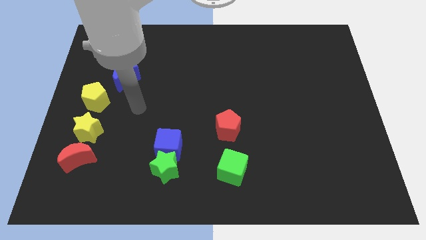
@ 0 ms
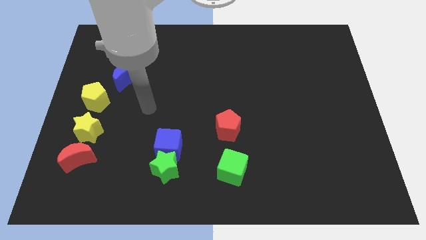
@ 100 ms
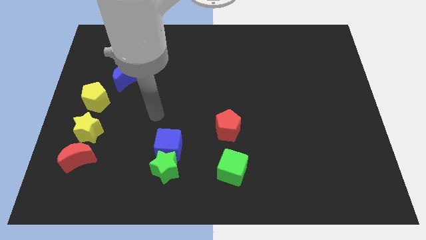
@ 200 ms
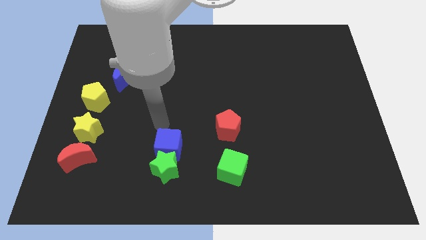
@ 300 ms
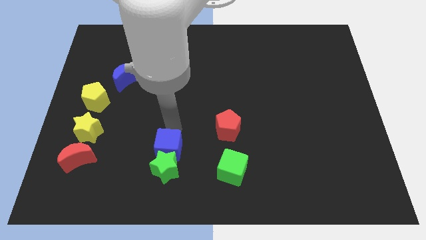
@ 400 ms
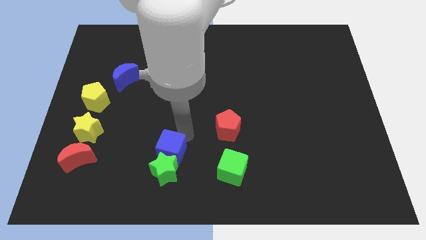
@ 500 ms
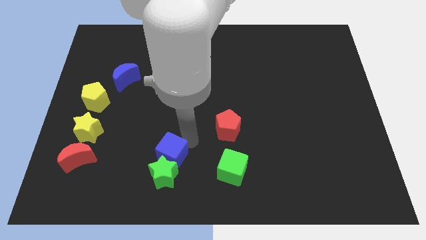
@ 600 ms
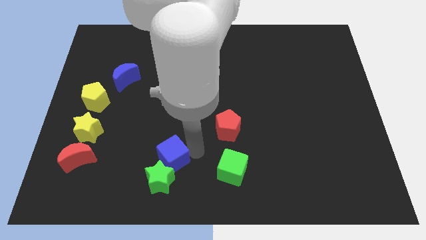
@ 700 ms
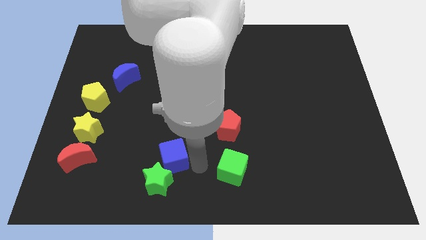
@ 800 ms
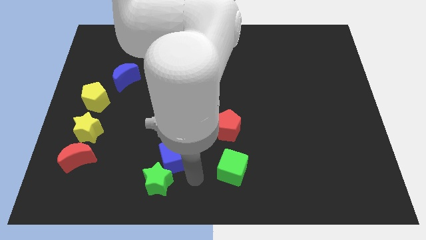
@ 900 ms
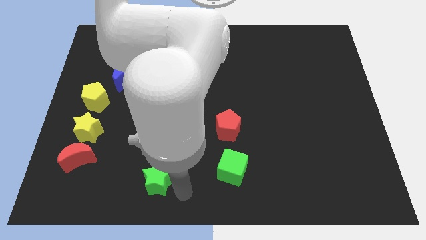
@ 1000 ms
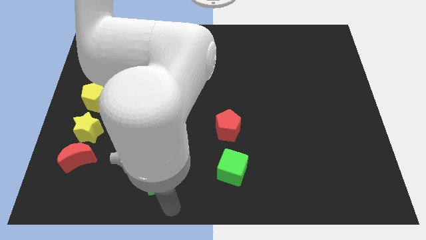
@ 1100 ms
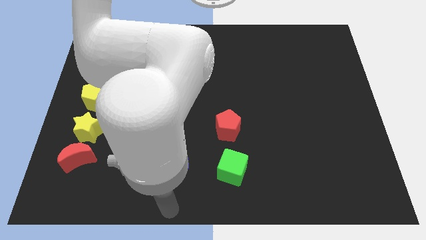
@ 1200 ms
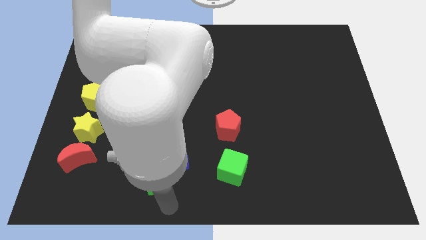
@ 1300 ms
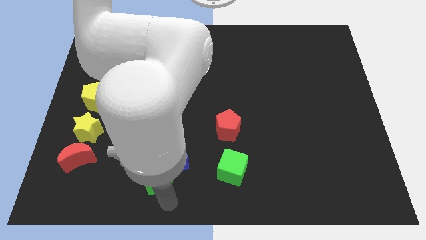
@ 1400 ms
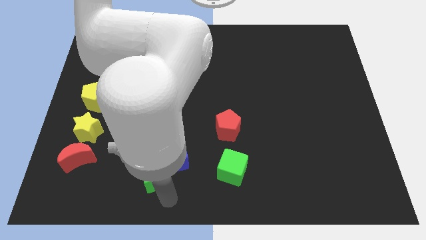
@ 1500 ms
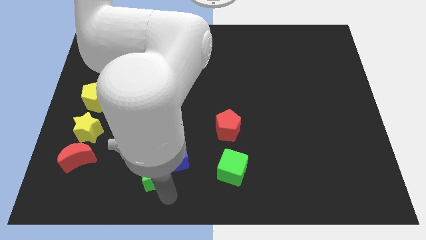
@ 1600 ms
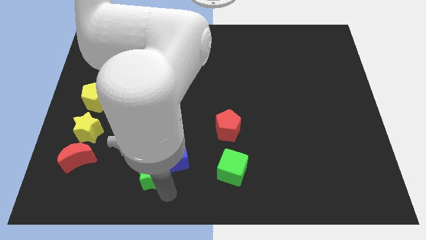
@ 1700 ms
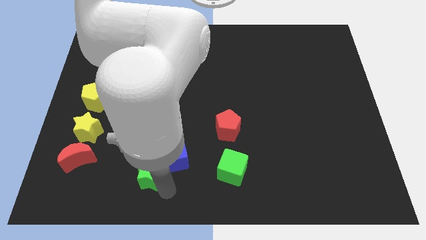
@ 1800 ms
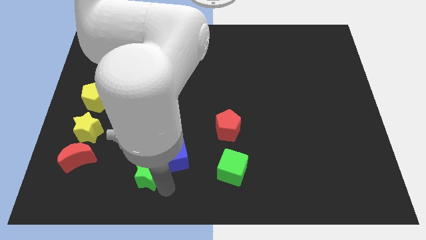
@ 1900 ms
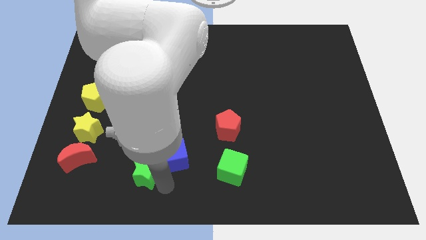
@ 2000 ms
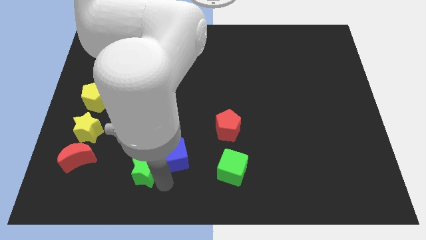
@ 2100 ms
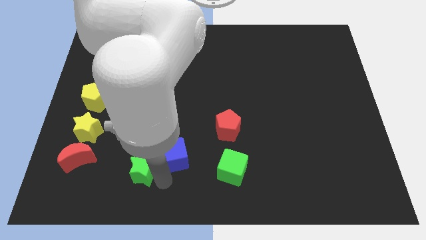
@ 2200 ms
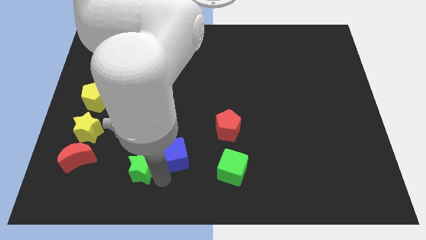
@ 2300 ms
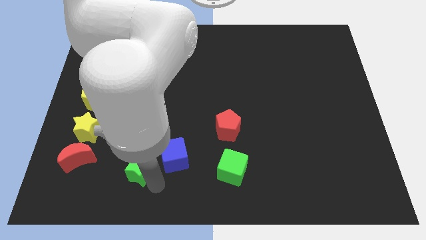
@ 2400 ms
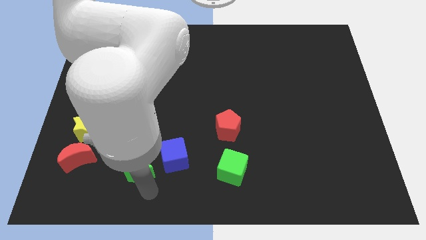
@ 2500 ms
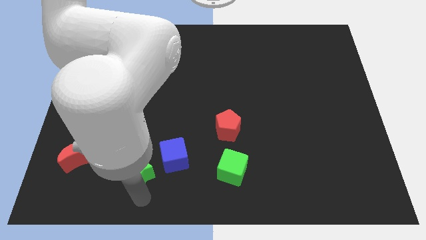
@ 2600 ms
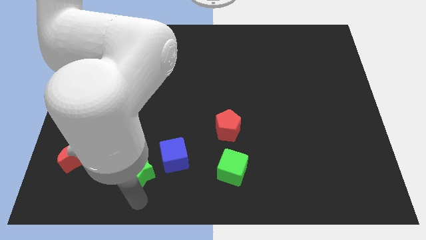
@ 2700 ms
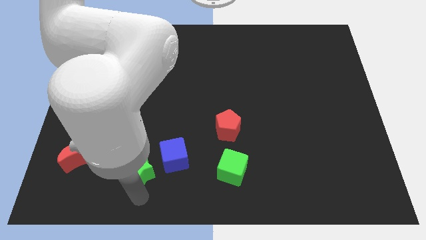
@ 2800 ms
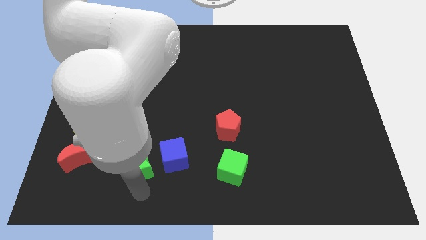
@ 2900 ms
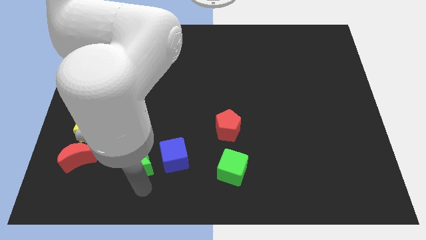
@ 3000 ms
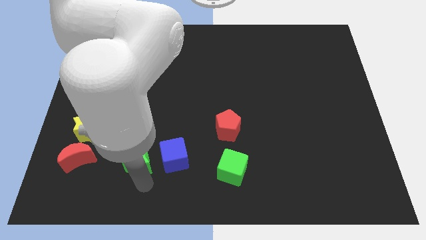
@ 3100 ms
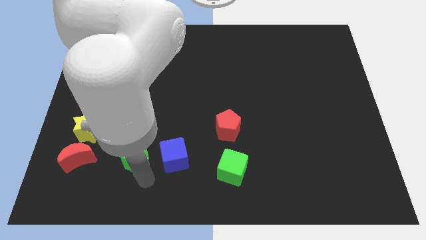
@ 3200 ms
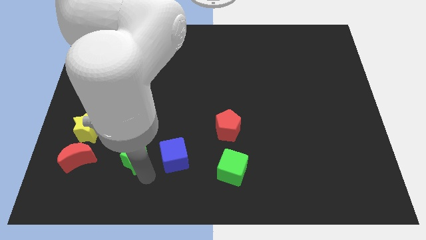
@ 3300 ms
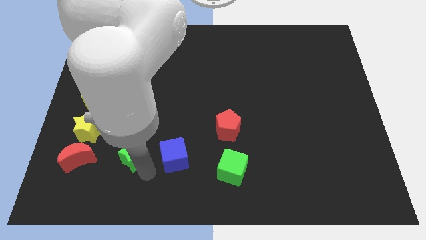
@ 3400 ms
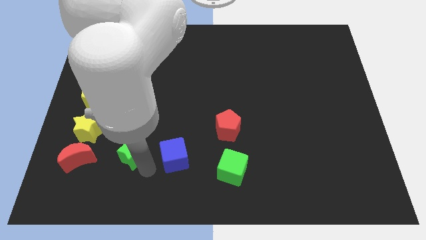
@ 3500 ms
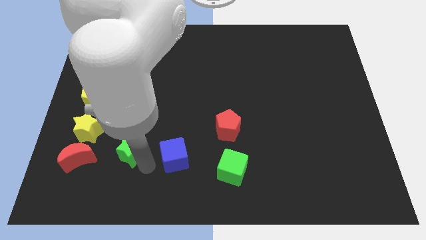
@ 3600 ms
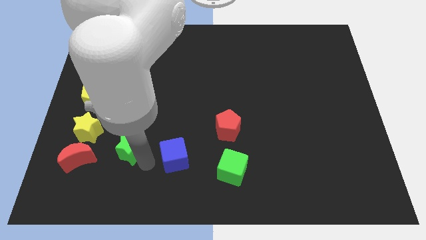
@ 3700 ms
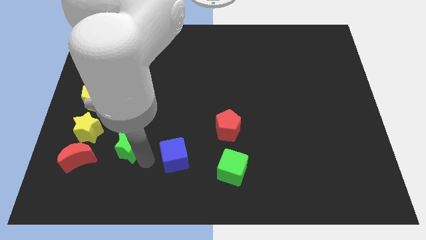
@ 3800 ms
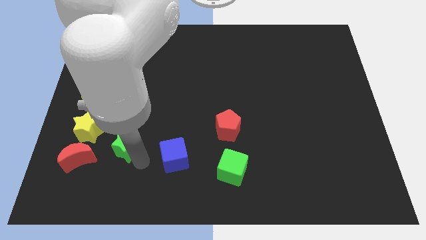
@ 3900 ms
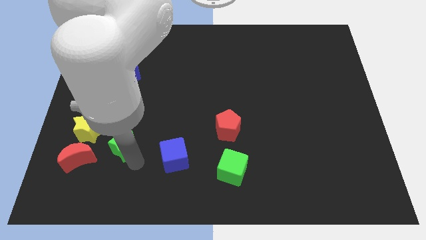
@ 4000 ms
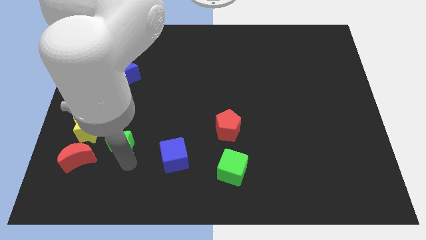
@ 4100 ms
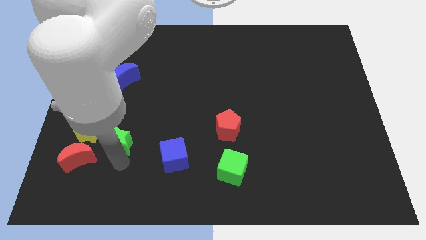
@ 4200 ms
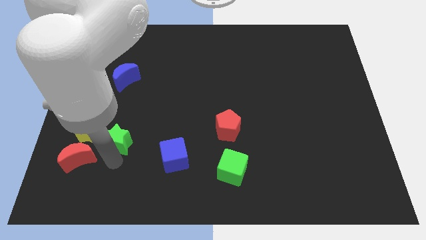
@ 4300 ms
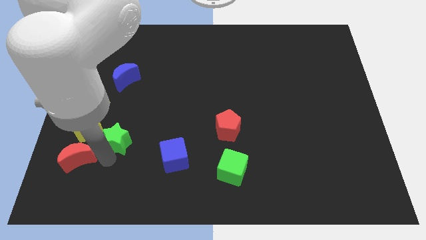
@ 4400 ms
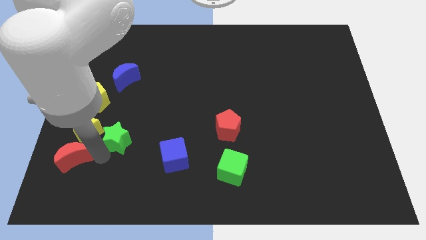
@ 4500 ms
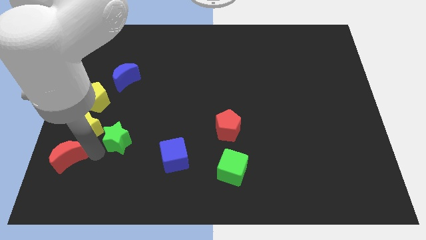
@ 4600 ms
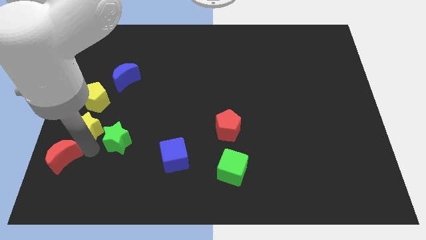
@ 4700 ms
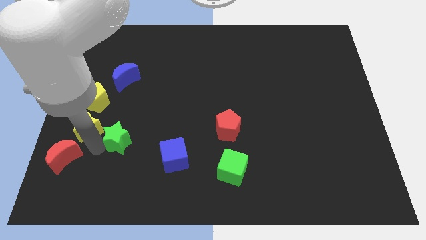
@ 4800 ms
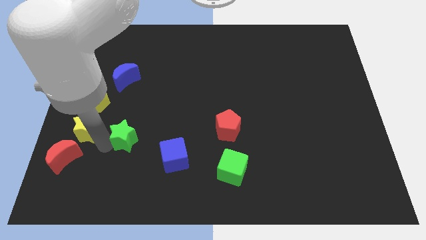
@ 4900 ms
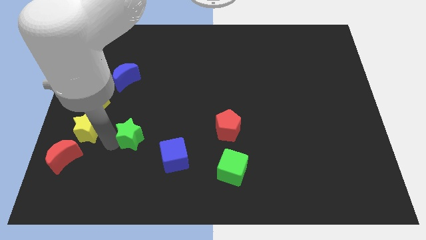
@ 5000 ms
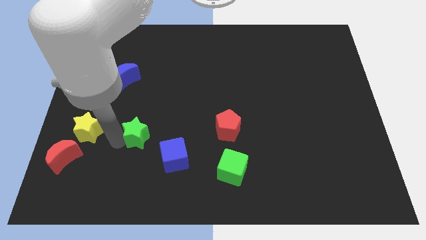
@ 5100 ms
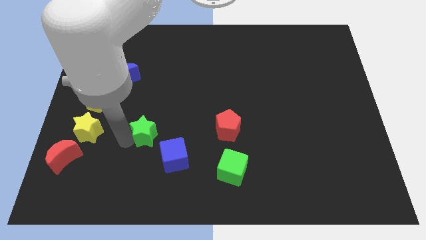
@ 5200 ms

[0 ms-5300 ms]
slide the green star a little bit upwards

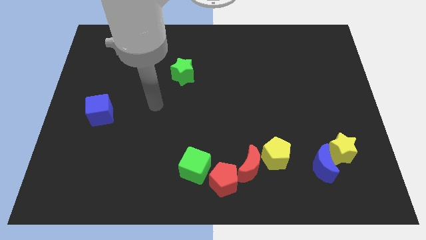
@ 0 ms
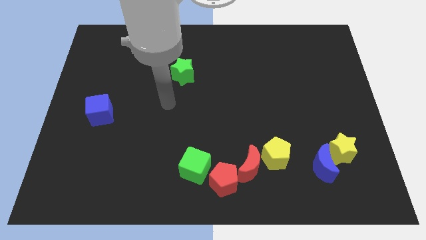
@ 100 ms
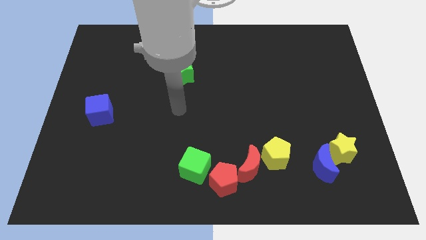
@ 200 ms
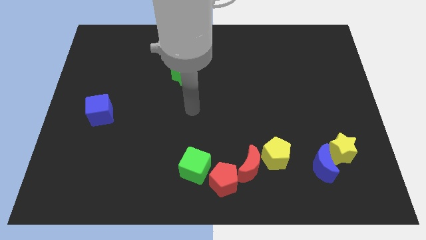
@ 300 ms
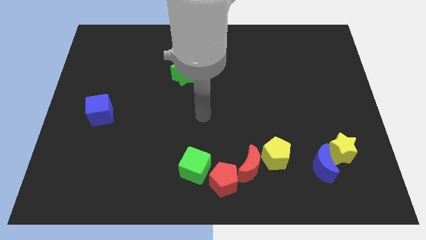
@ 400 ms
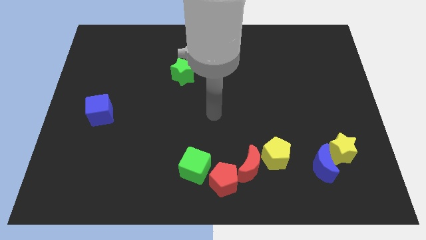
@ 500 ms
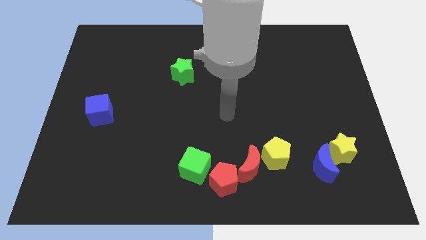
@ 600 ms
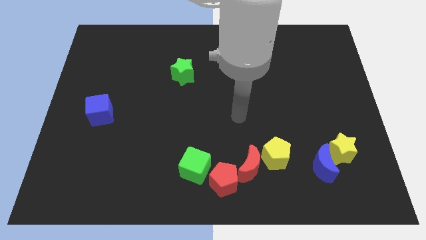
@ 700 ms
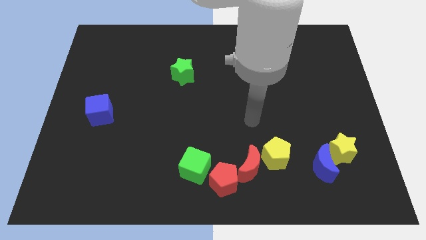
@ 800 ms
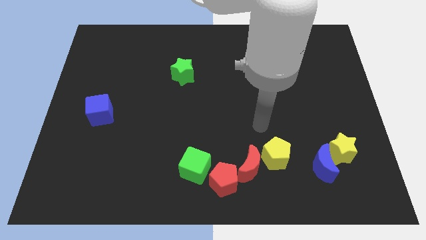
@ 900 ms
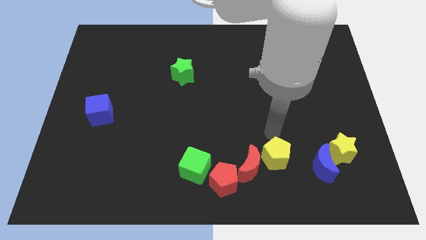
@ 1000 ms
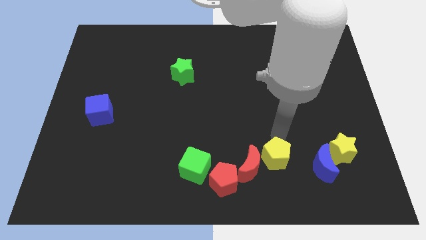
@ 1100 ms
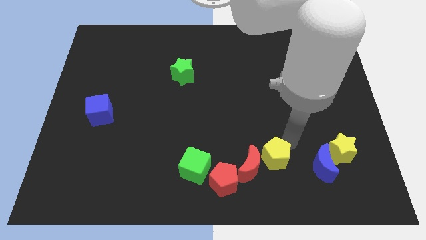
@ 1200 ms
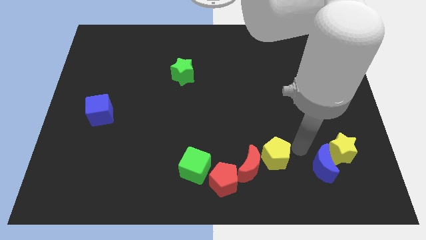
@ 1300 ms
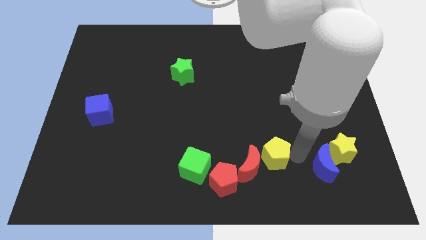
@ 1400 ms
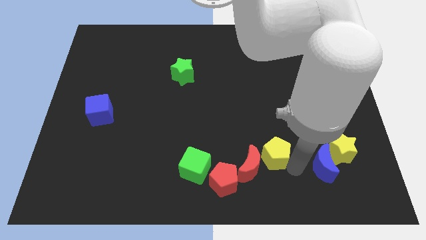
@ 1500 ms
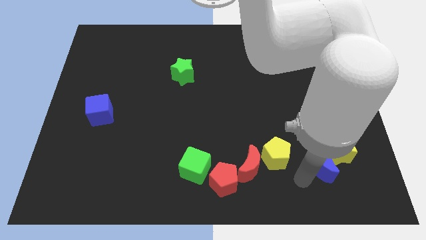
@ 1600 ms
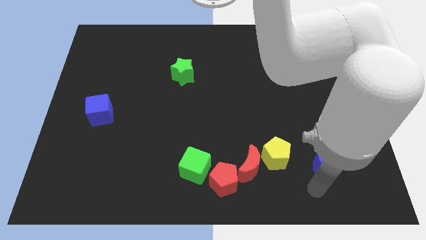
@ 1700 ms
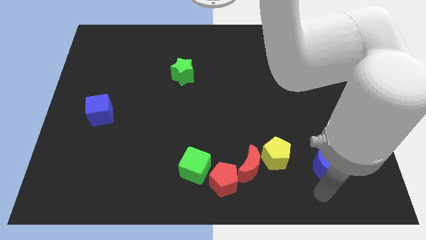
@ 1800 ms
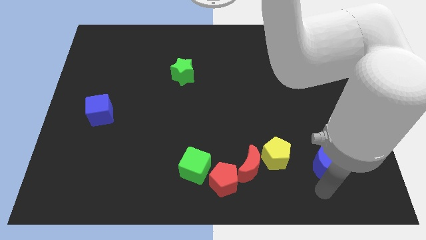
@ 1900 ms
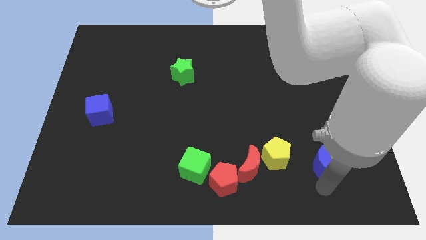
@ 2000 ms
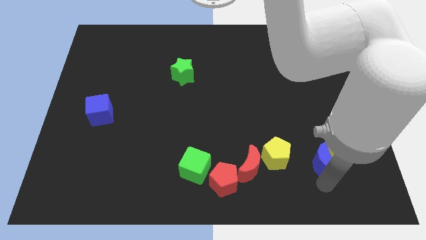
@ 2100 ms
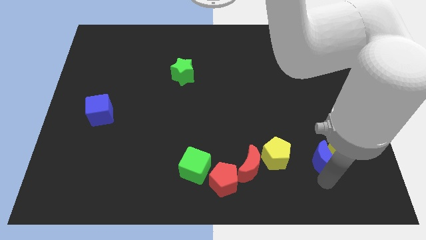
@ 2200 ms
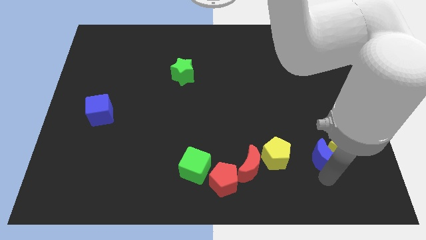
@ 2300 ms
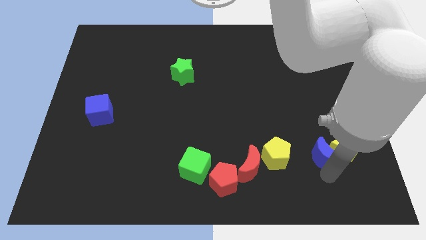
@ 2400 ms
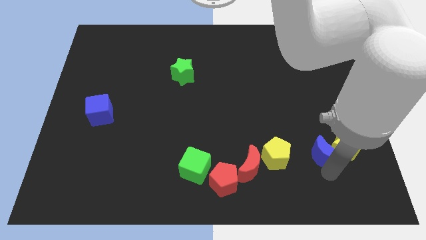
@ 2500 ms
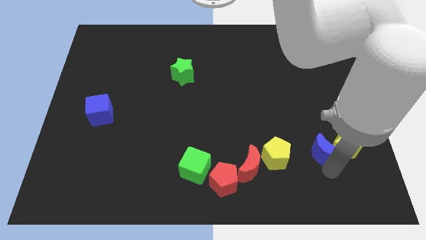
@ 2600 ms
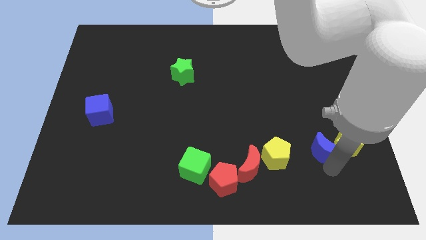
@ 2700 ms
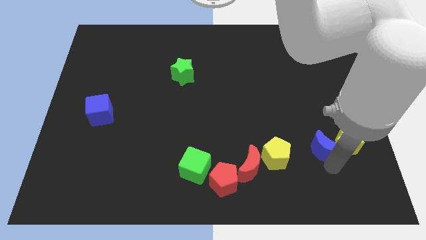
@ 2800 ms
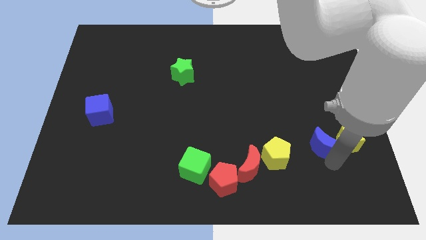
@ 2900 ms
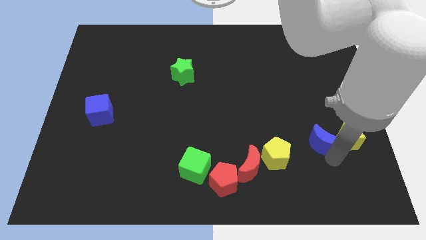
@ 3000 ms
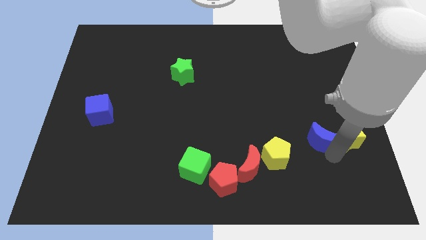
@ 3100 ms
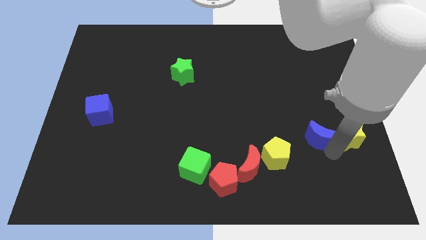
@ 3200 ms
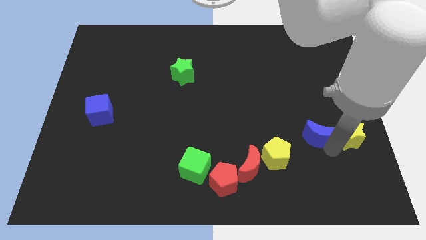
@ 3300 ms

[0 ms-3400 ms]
push the blue moon a bit up
